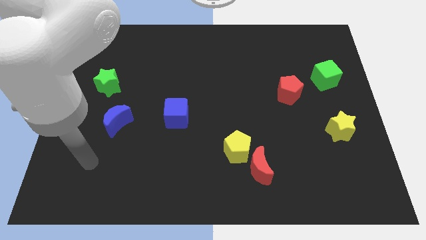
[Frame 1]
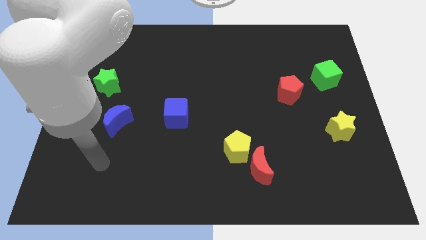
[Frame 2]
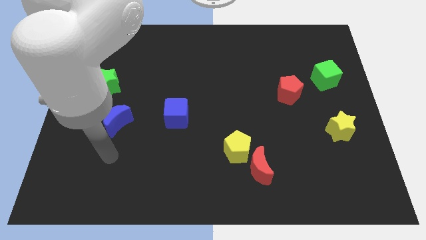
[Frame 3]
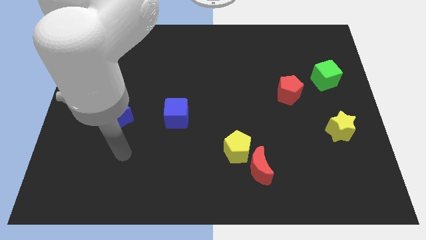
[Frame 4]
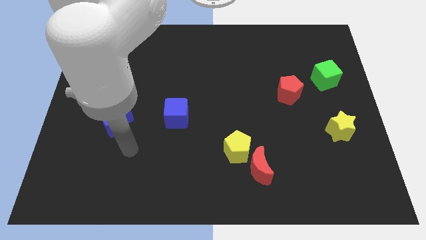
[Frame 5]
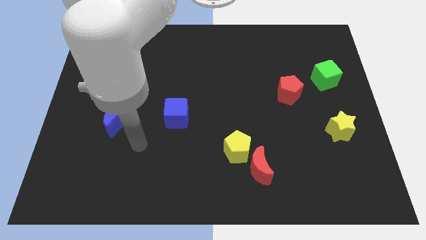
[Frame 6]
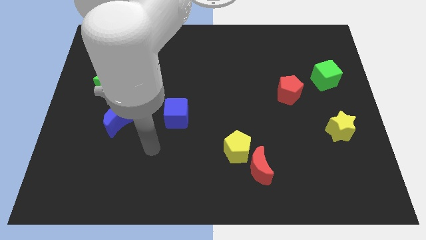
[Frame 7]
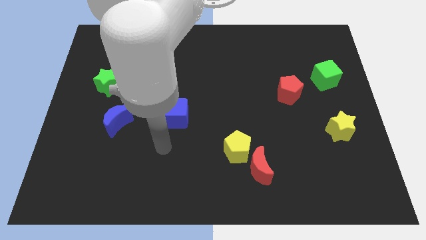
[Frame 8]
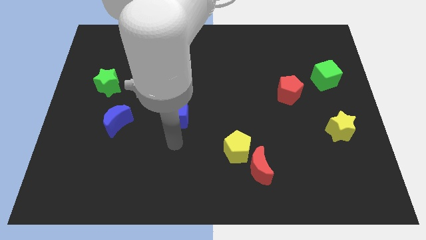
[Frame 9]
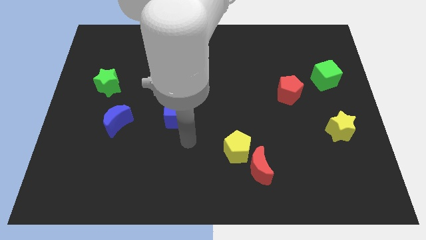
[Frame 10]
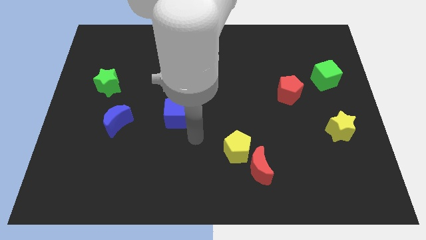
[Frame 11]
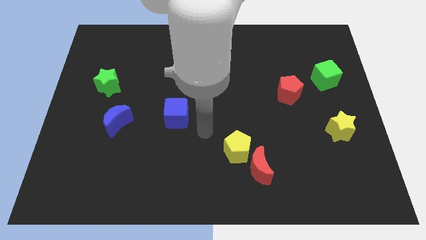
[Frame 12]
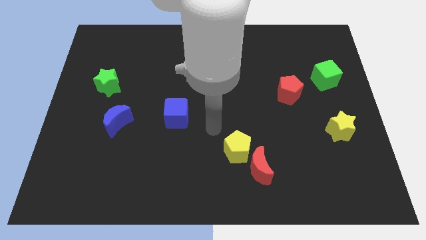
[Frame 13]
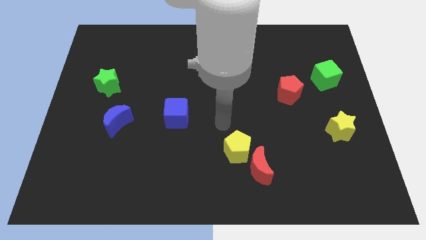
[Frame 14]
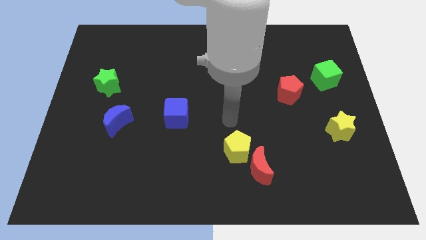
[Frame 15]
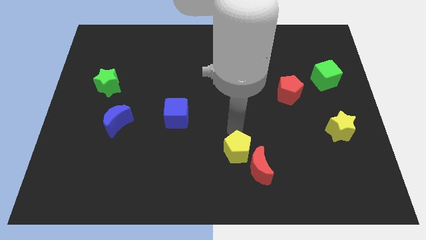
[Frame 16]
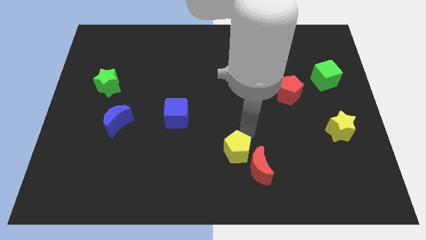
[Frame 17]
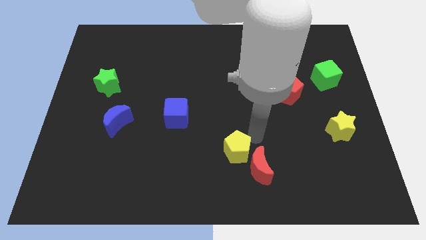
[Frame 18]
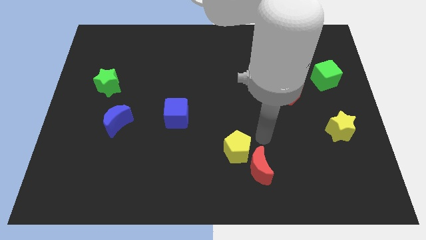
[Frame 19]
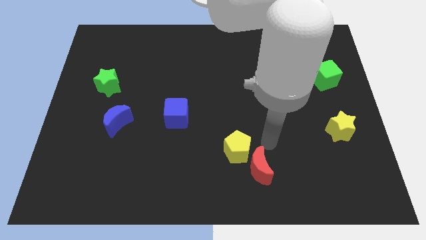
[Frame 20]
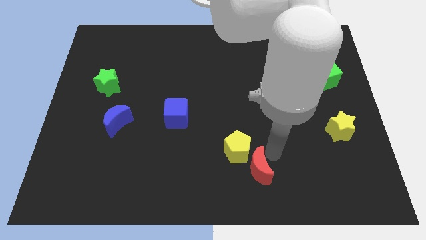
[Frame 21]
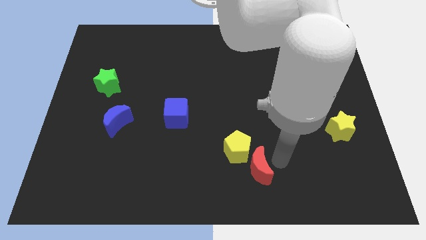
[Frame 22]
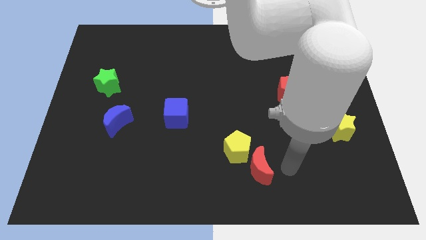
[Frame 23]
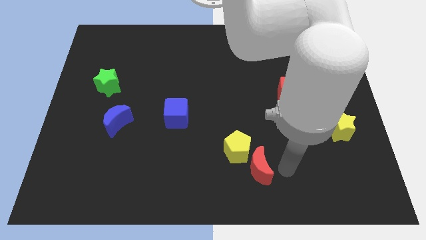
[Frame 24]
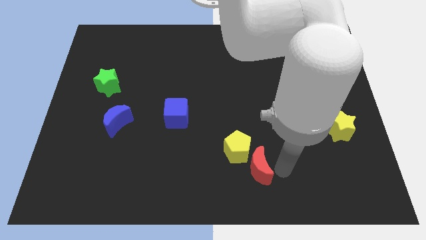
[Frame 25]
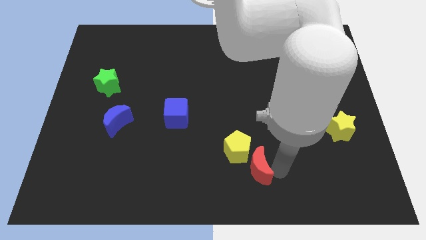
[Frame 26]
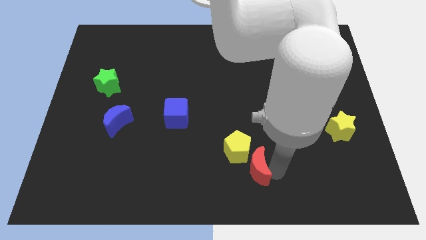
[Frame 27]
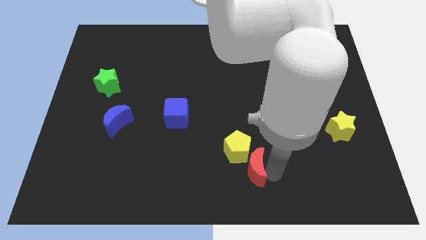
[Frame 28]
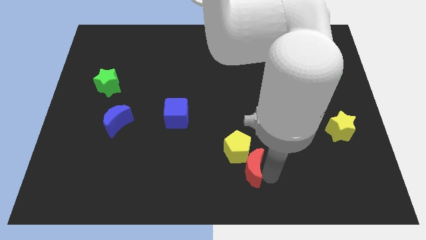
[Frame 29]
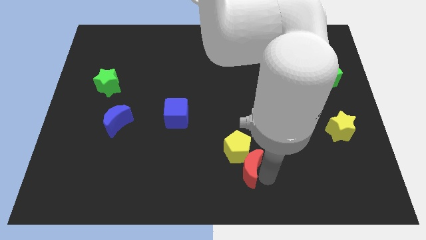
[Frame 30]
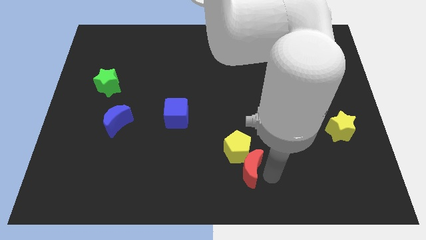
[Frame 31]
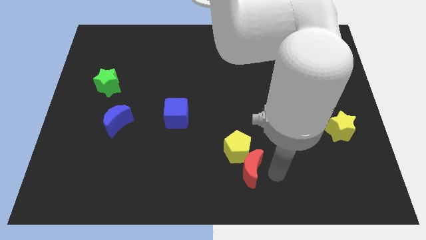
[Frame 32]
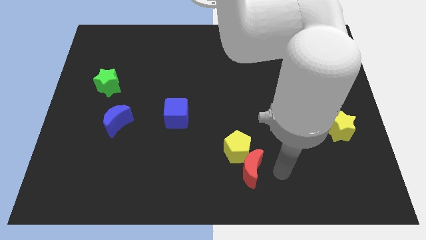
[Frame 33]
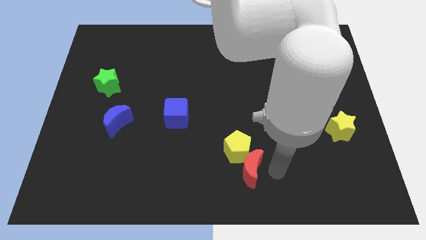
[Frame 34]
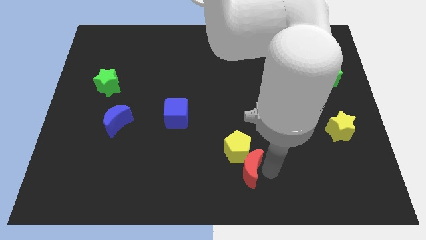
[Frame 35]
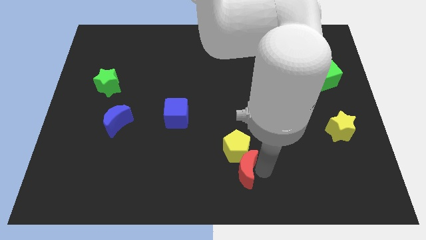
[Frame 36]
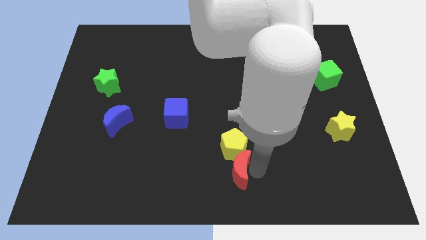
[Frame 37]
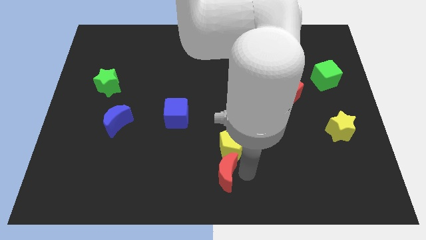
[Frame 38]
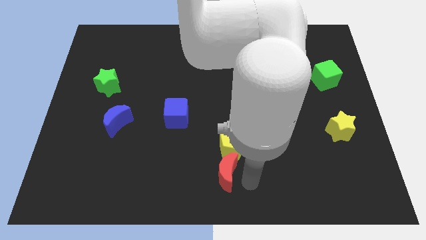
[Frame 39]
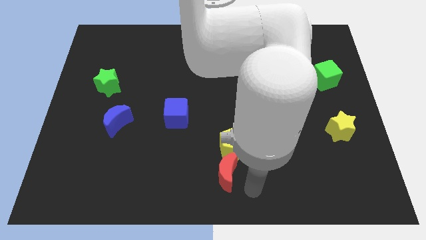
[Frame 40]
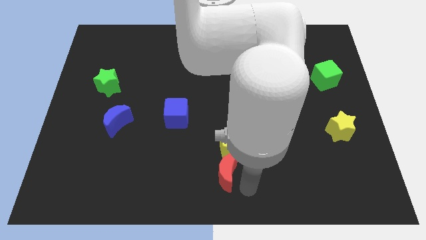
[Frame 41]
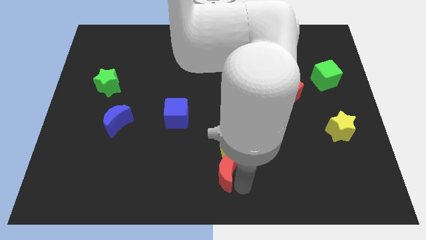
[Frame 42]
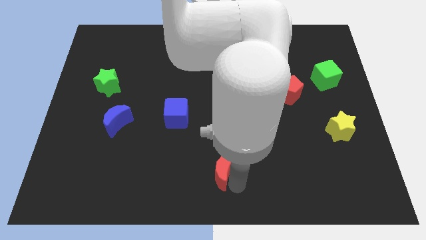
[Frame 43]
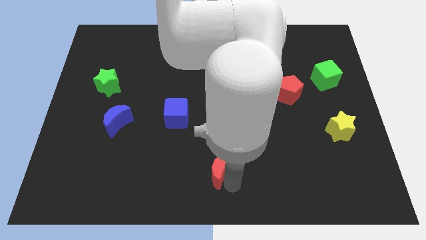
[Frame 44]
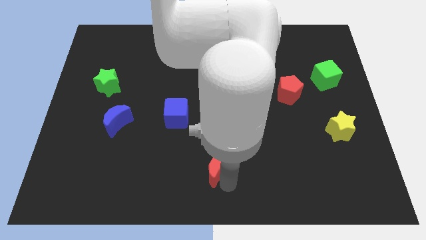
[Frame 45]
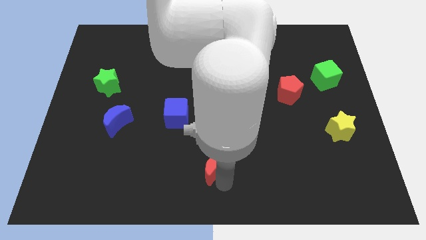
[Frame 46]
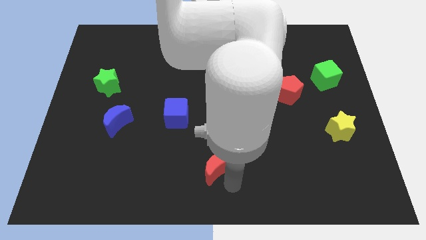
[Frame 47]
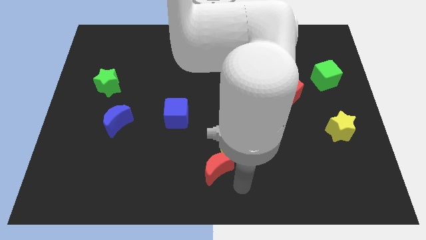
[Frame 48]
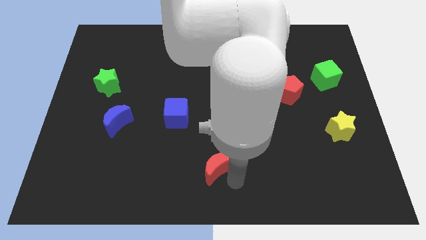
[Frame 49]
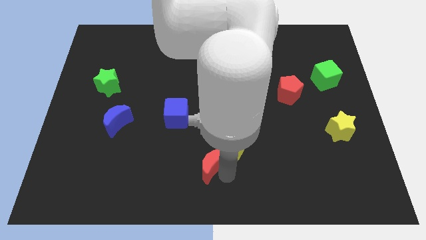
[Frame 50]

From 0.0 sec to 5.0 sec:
push the red moon to the left side of the yellow pentagon

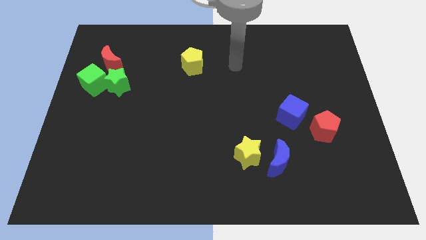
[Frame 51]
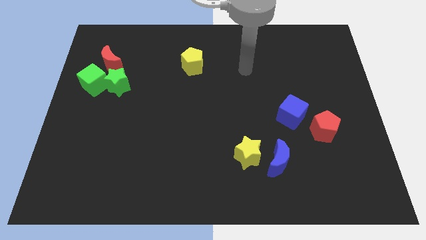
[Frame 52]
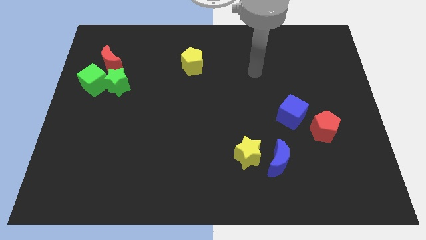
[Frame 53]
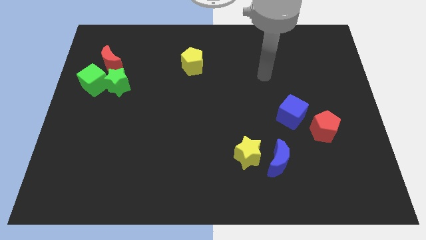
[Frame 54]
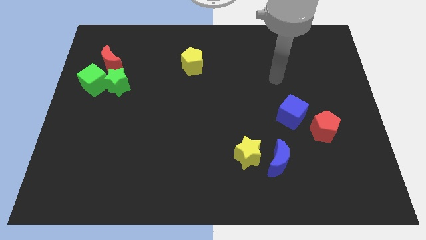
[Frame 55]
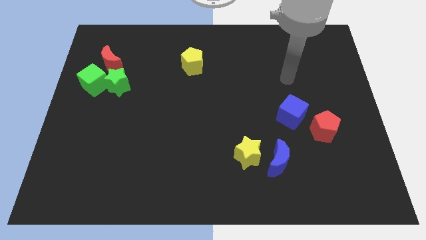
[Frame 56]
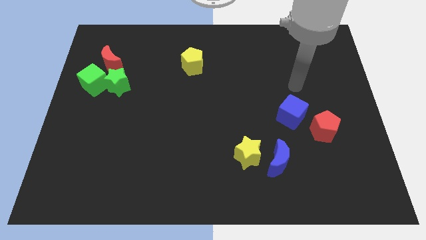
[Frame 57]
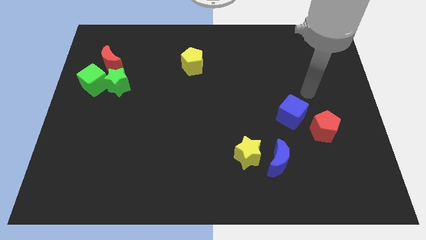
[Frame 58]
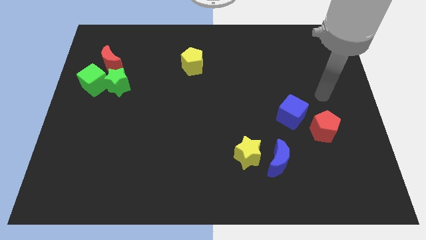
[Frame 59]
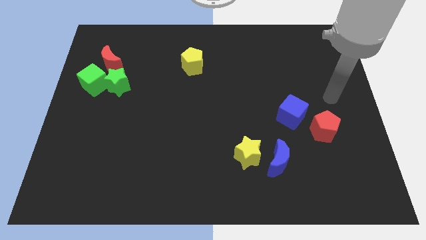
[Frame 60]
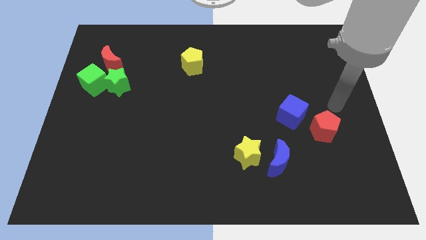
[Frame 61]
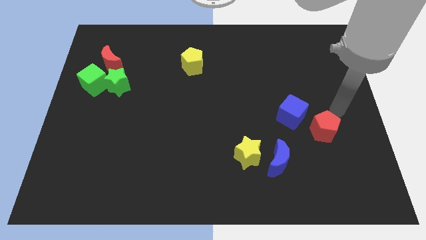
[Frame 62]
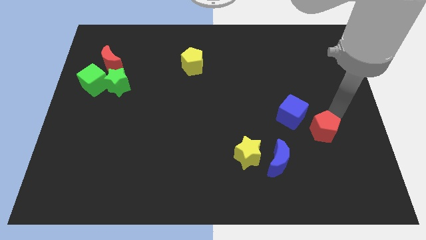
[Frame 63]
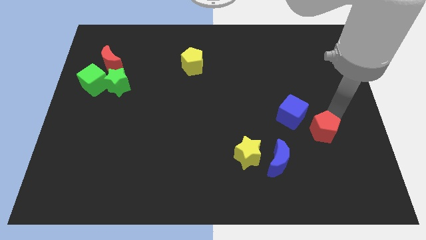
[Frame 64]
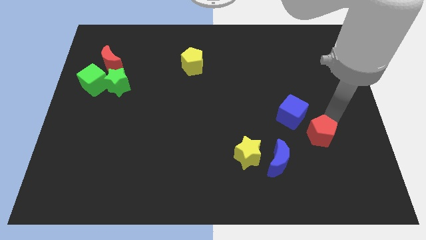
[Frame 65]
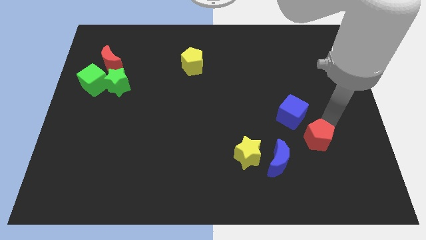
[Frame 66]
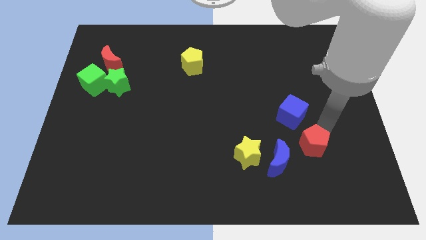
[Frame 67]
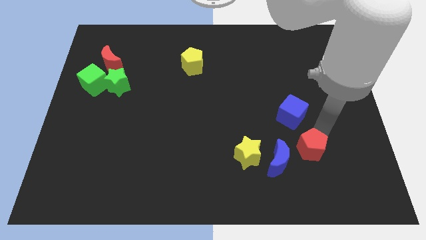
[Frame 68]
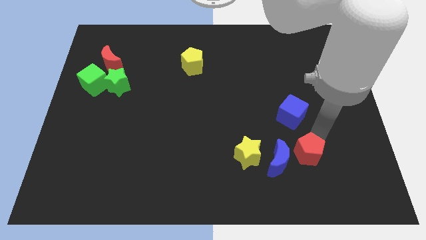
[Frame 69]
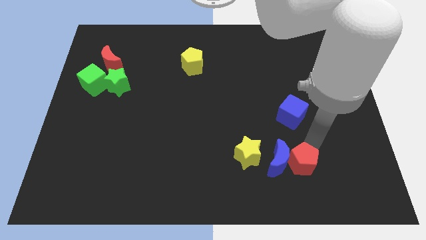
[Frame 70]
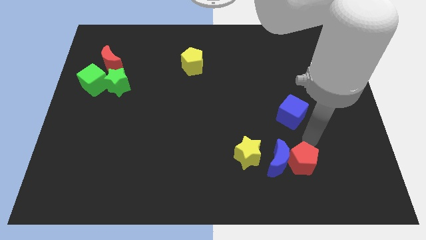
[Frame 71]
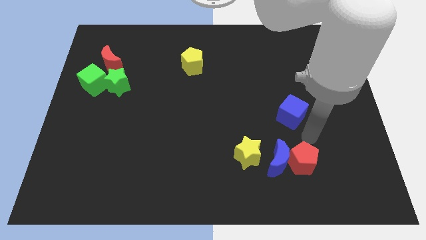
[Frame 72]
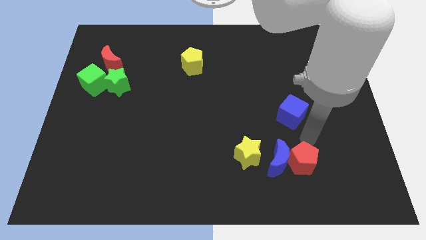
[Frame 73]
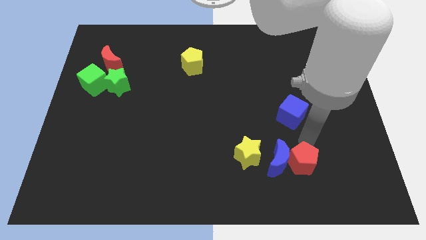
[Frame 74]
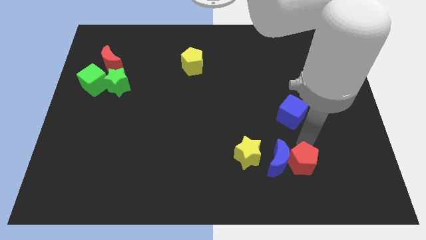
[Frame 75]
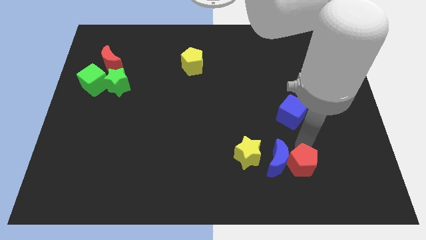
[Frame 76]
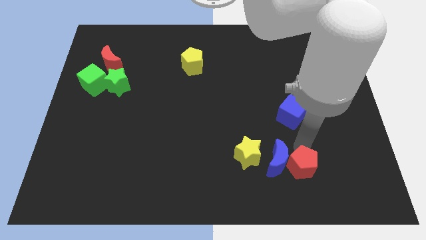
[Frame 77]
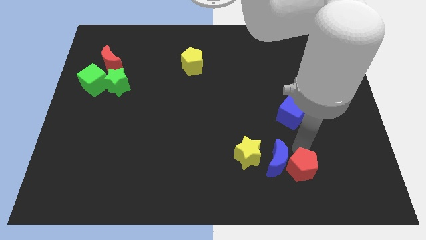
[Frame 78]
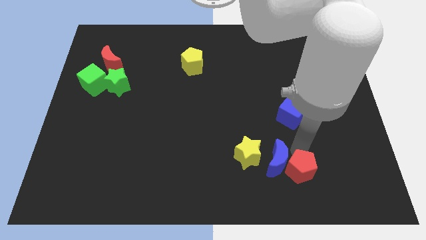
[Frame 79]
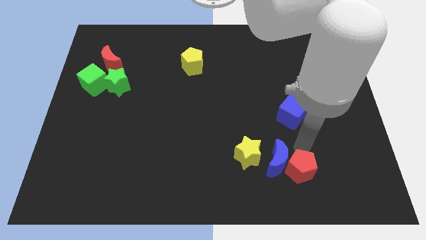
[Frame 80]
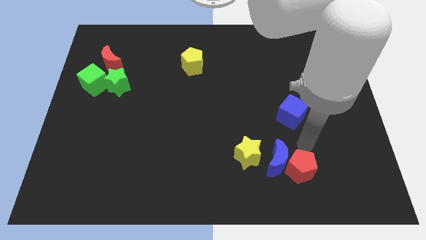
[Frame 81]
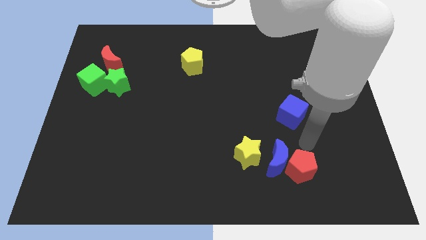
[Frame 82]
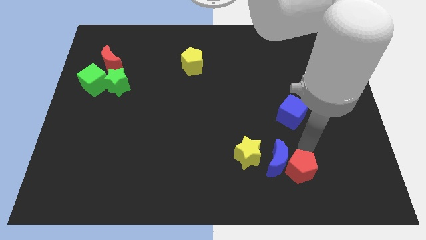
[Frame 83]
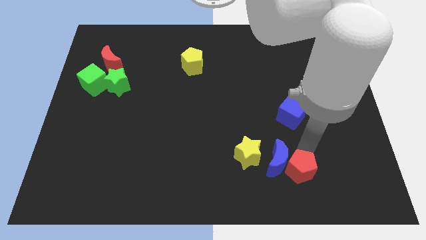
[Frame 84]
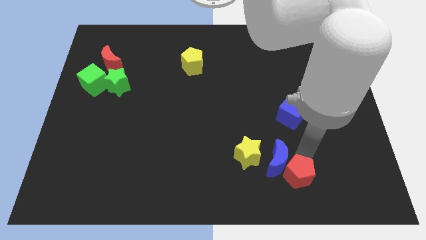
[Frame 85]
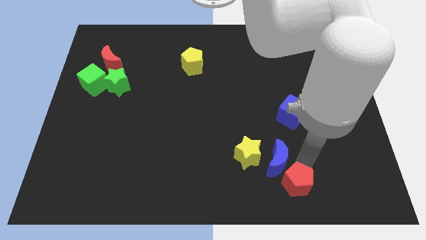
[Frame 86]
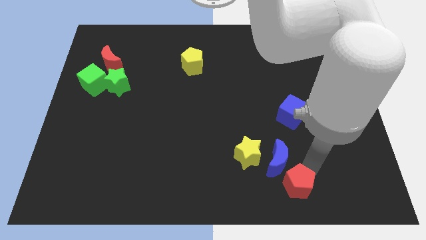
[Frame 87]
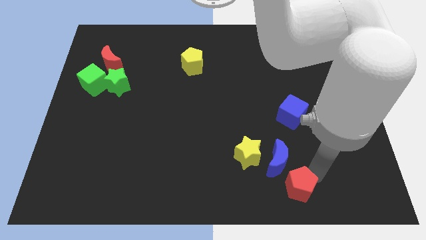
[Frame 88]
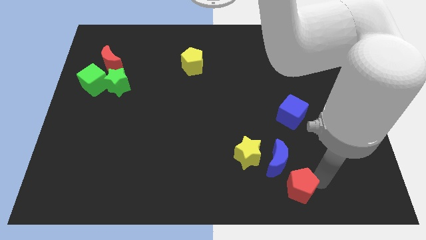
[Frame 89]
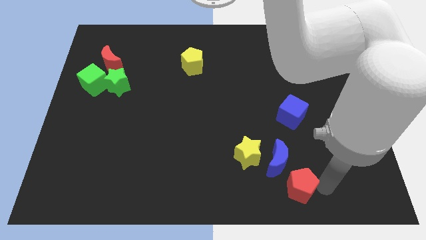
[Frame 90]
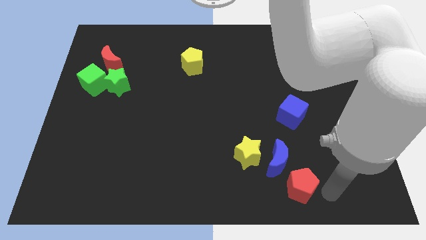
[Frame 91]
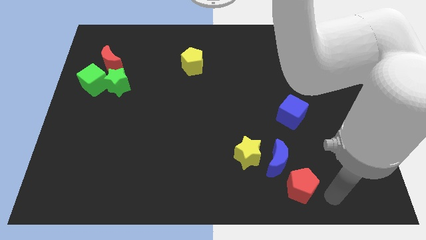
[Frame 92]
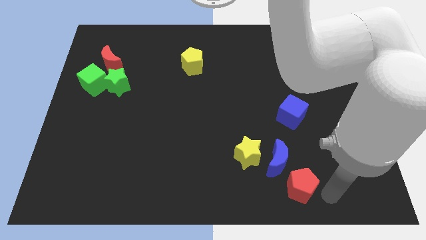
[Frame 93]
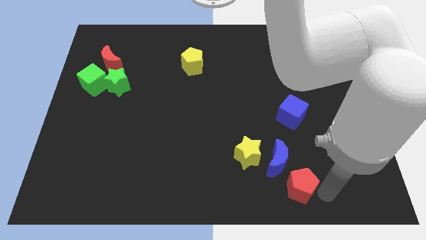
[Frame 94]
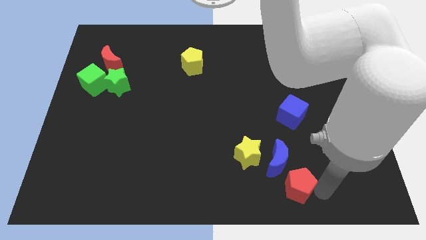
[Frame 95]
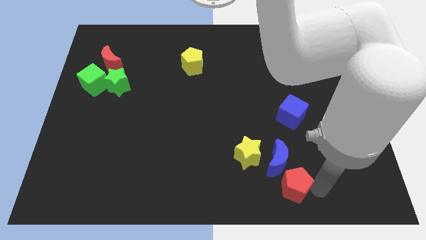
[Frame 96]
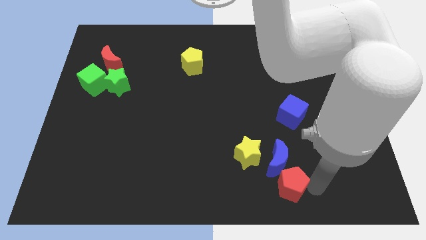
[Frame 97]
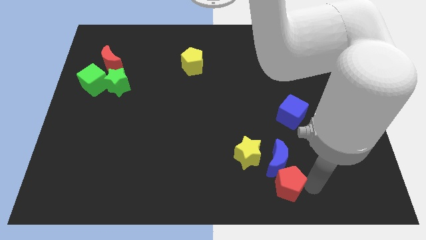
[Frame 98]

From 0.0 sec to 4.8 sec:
push the red pentagon diagonally down and to the left of the blue moon
